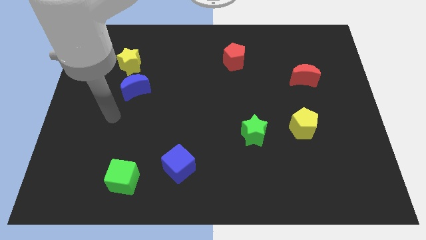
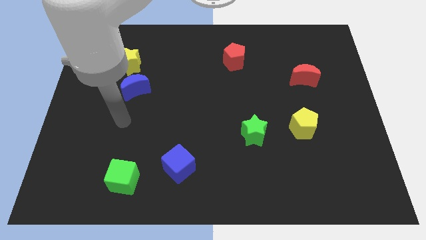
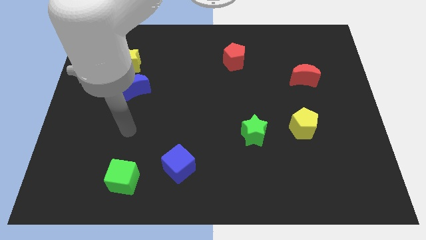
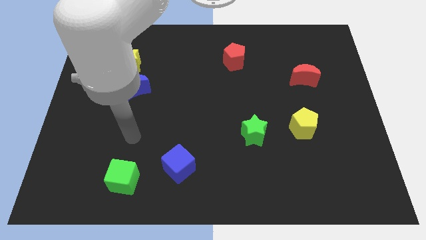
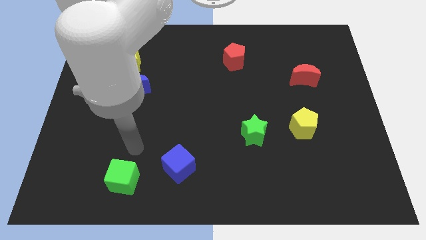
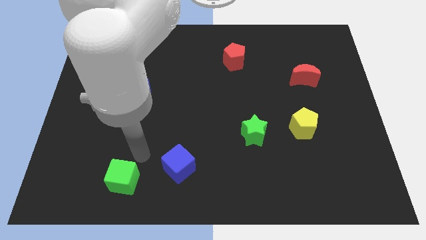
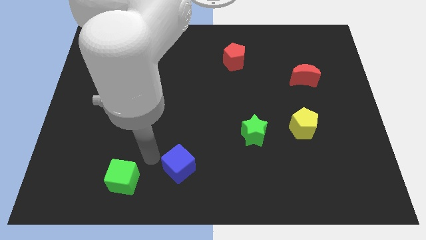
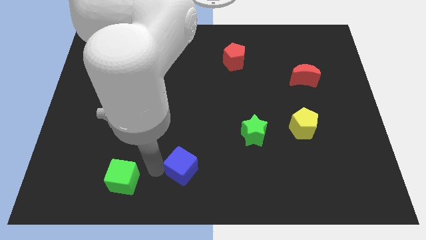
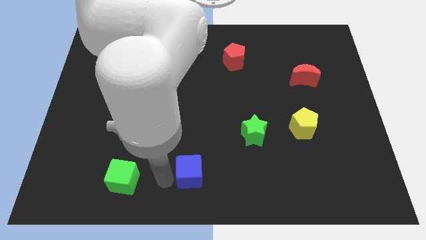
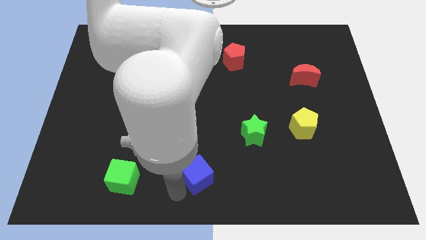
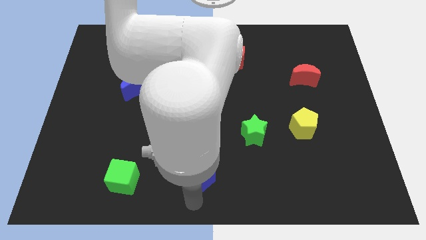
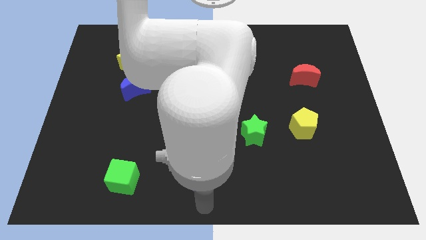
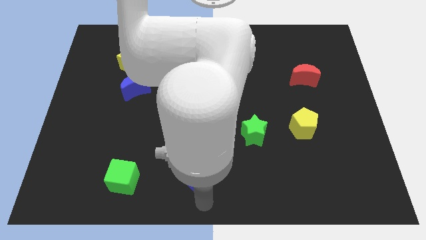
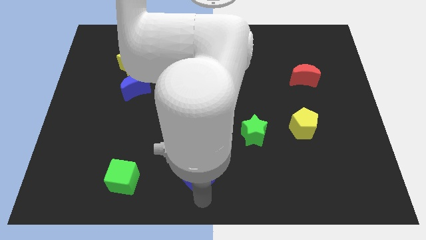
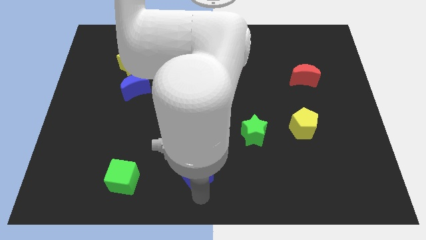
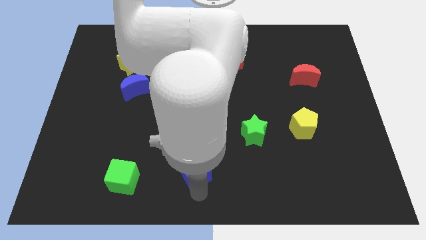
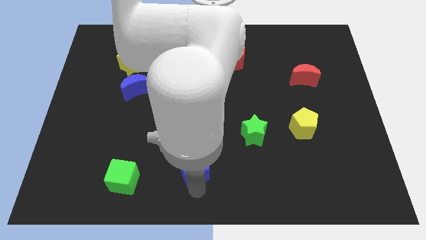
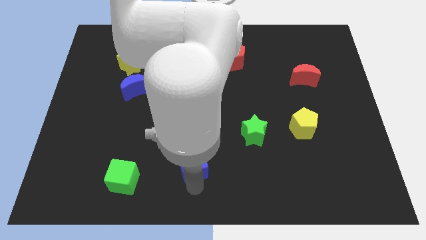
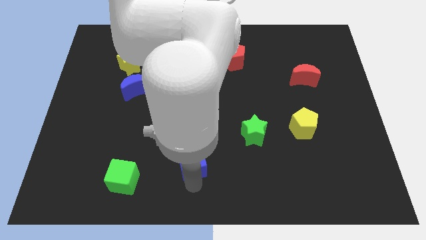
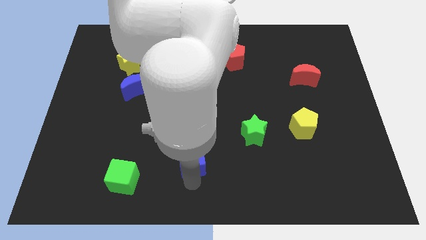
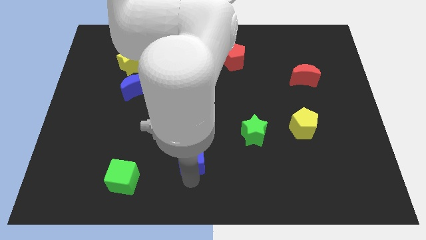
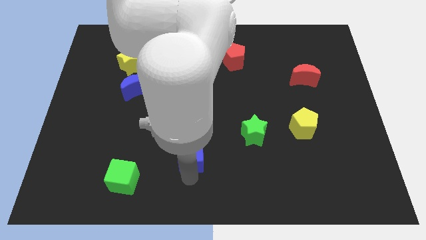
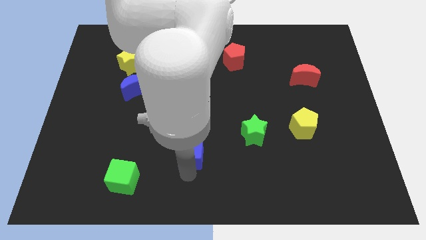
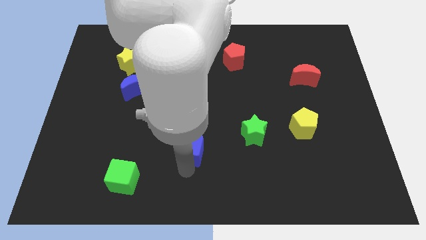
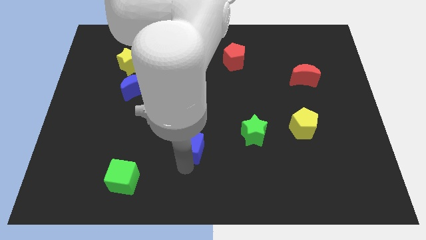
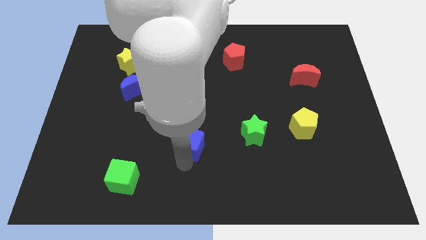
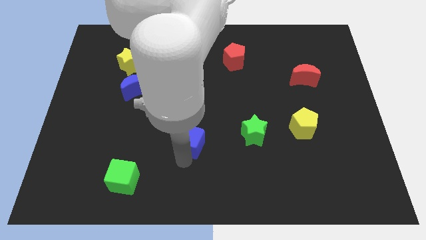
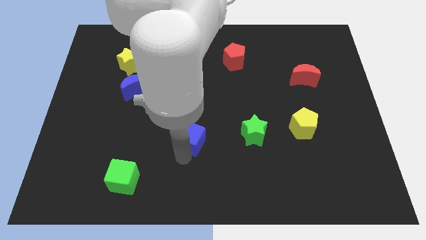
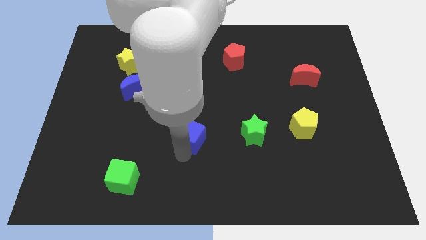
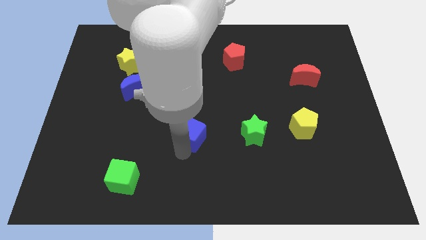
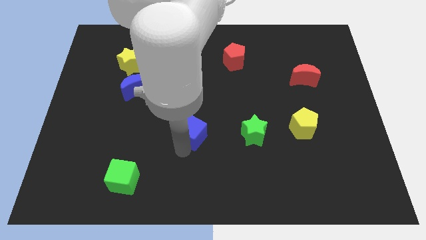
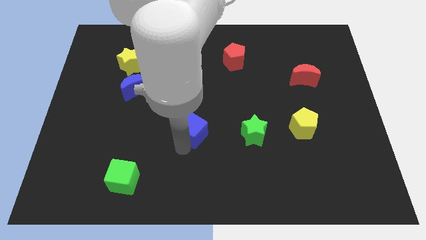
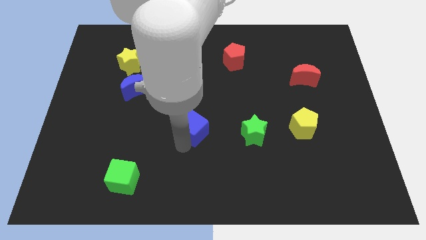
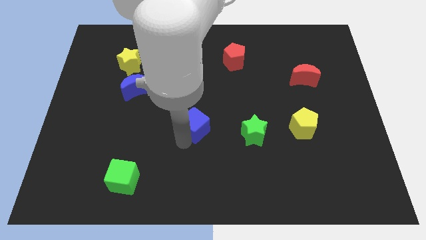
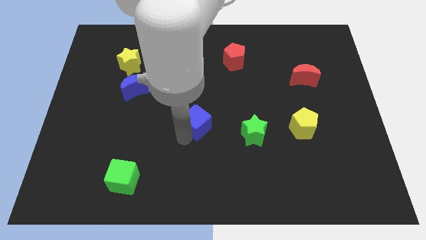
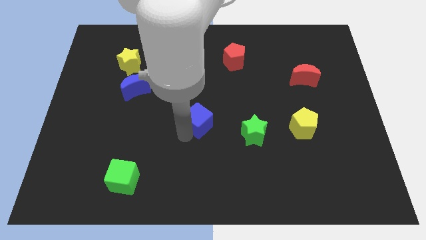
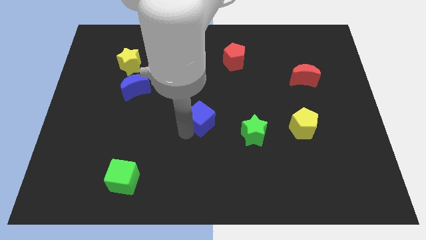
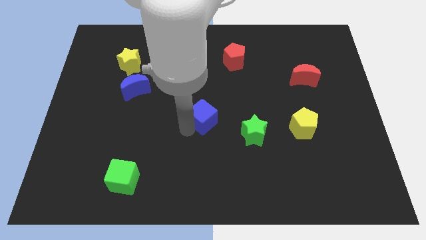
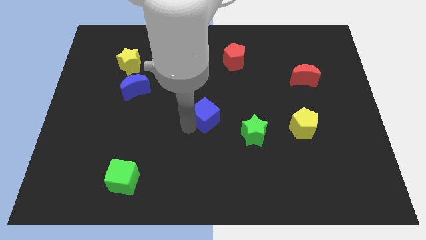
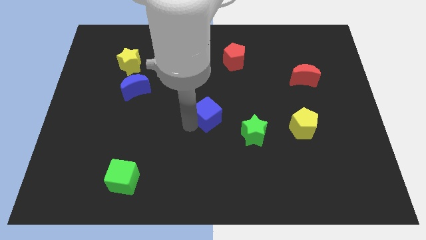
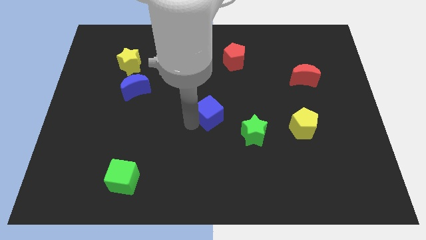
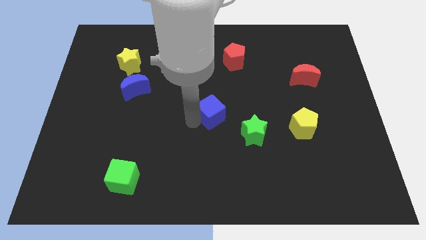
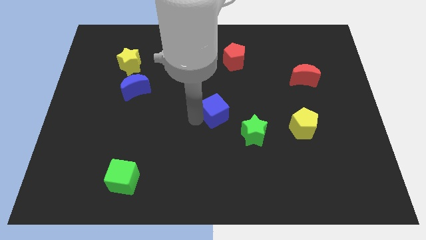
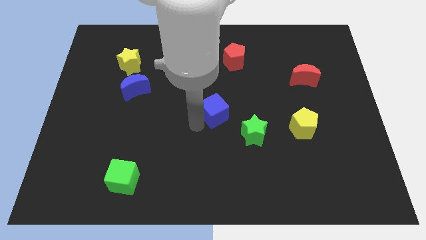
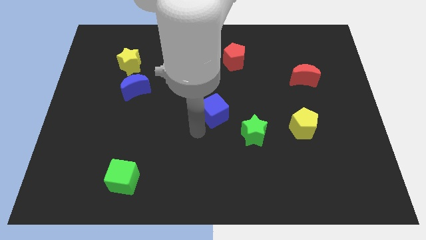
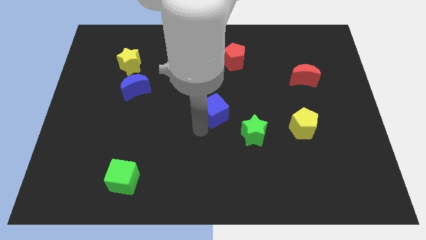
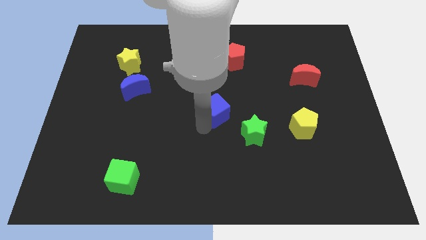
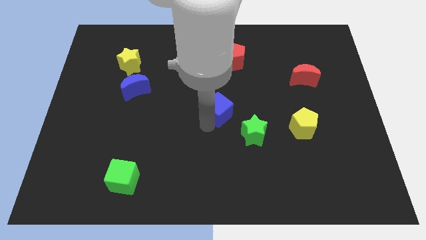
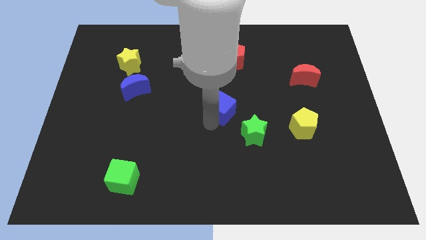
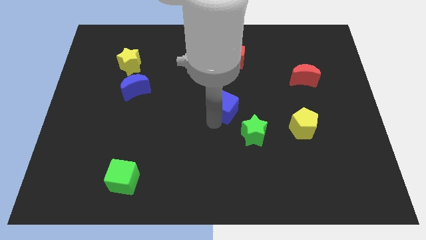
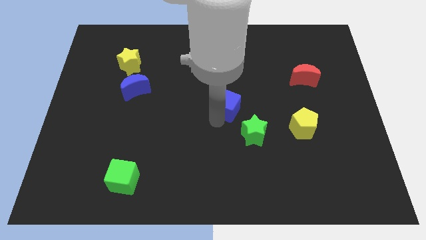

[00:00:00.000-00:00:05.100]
put the blue cube to the bottom of the red pentagon

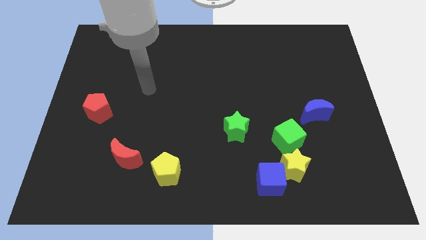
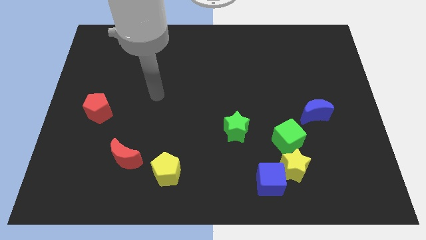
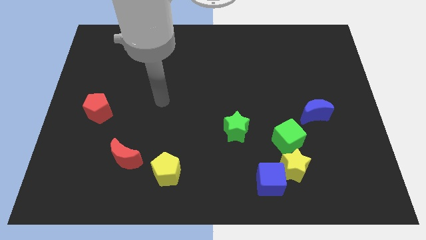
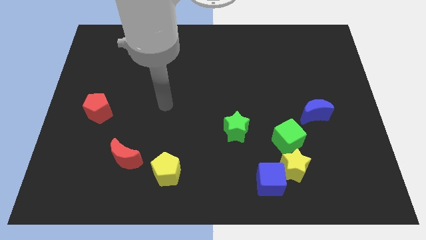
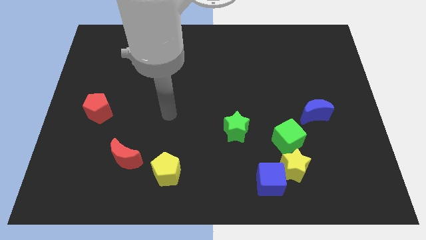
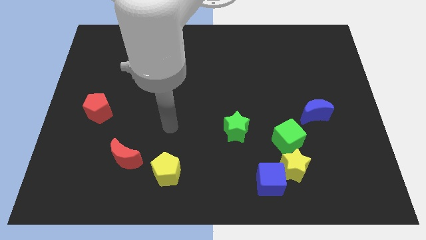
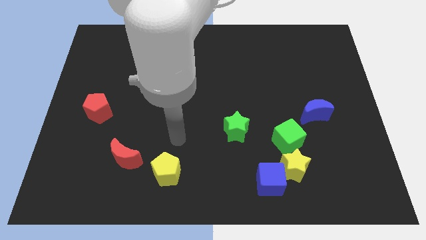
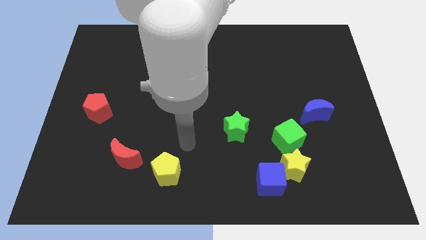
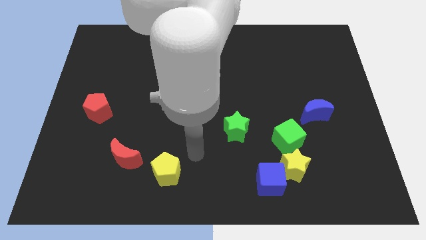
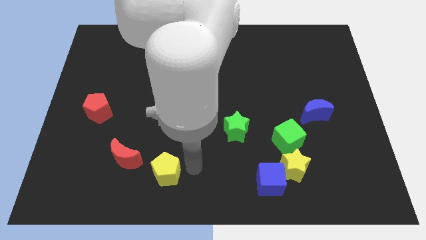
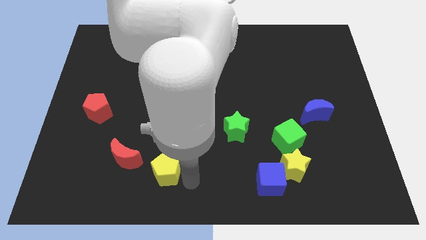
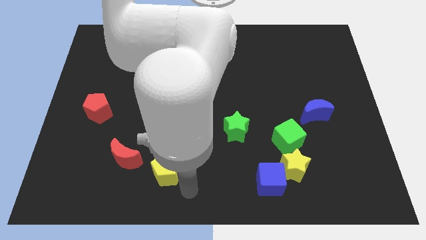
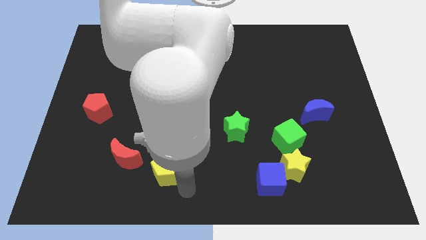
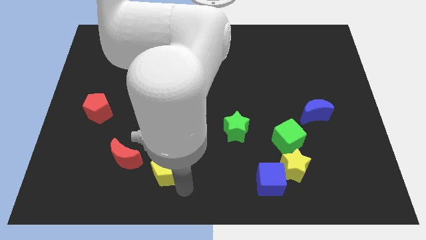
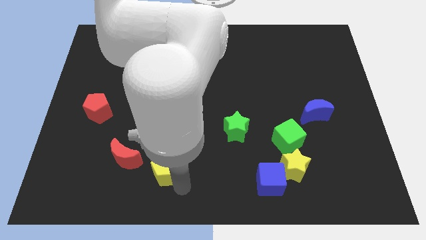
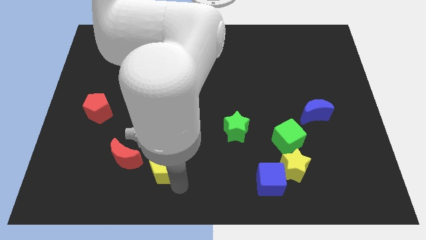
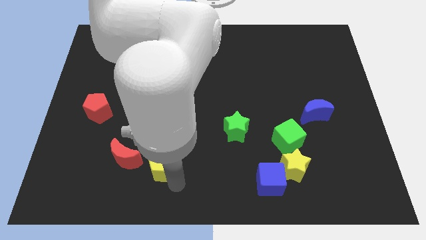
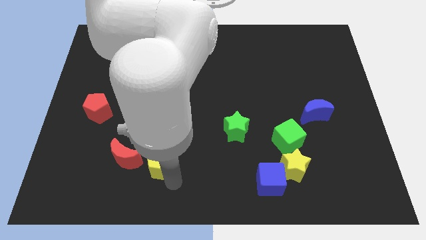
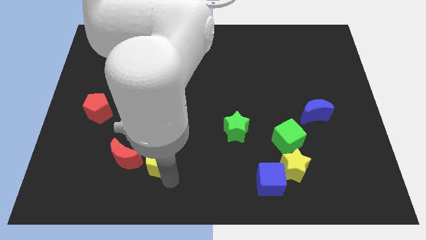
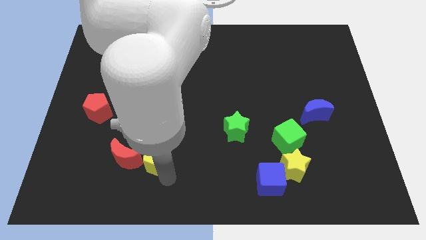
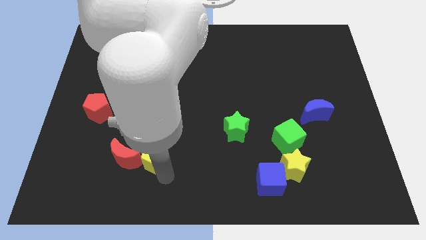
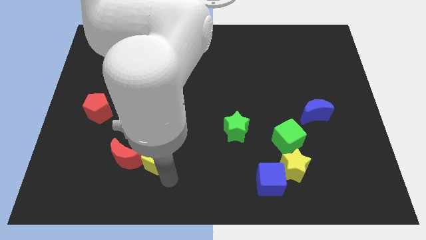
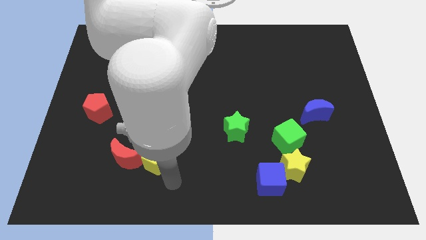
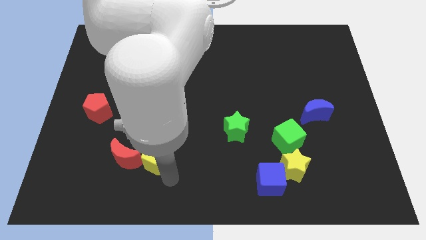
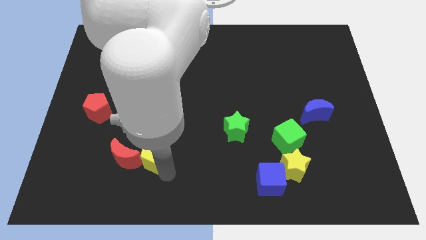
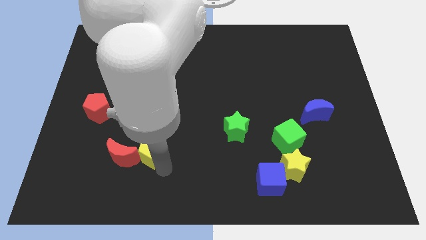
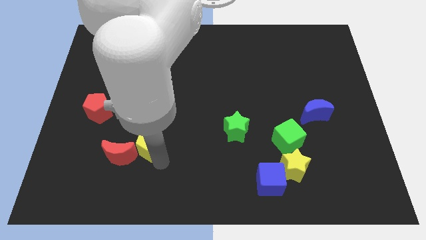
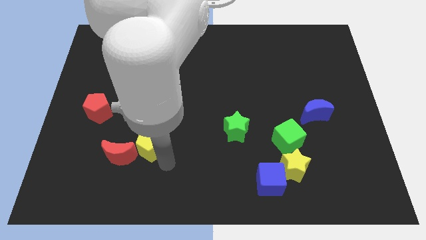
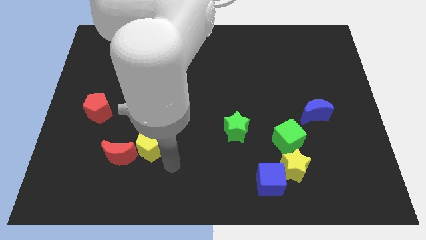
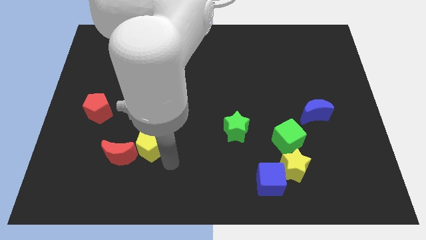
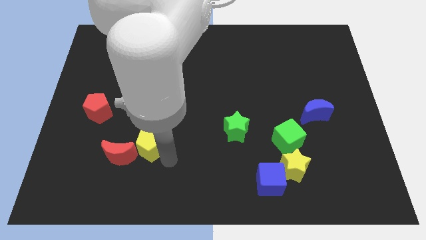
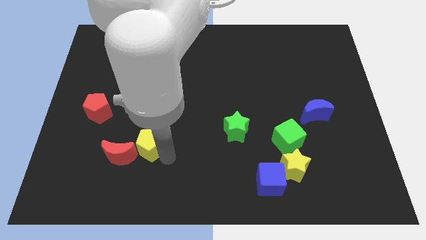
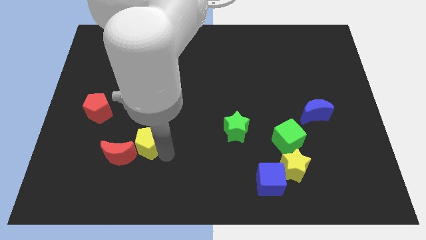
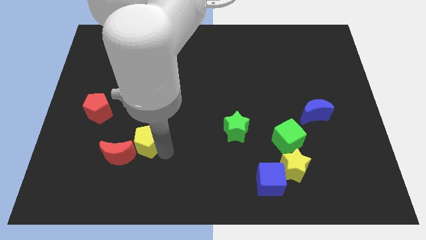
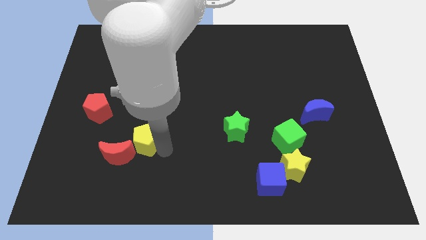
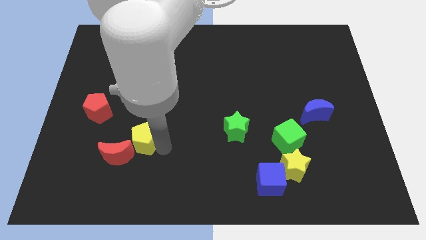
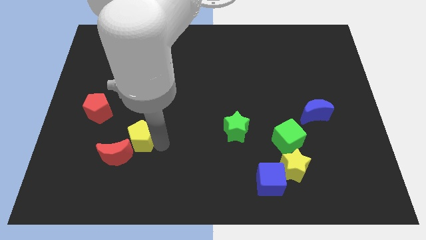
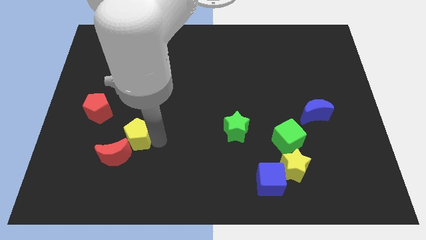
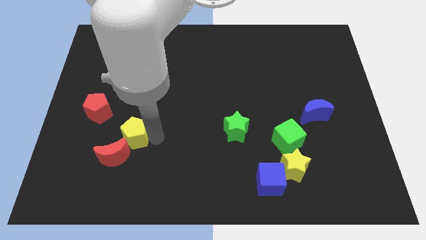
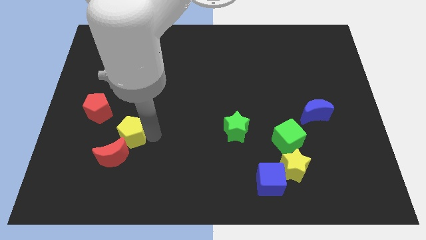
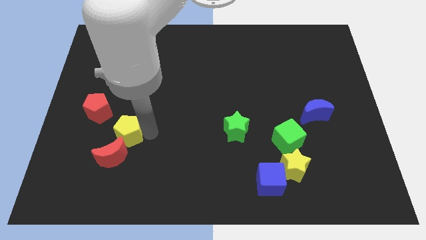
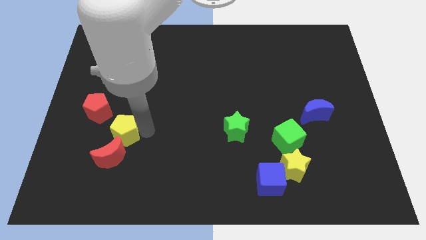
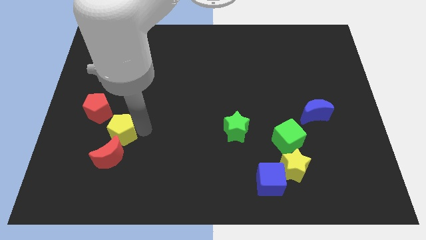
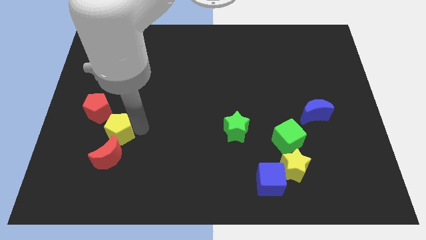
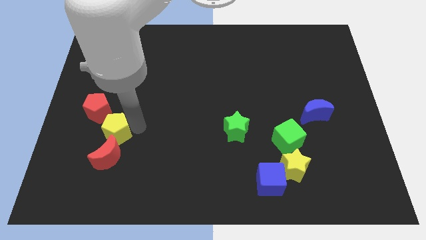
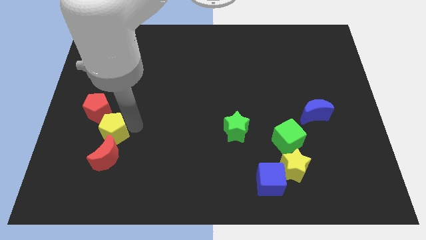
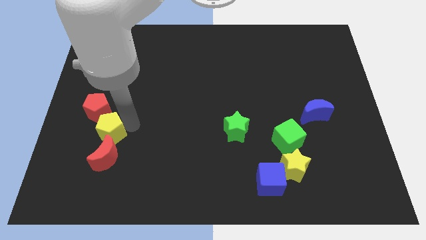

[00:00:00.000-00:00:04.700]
put the yellow pentagon diagonally up and to the left of the red moon
